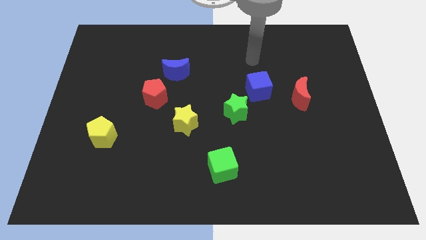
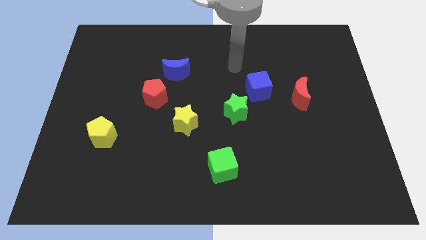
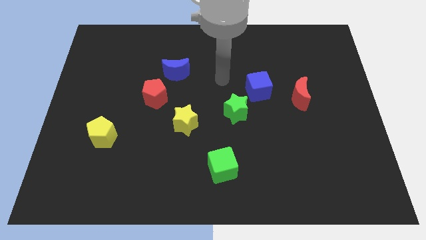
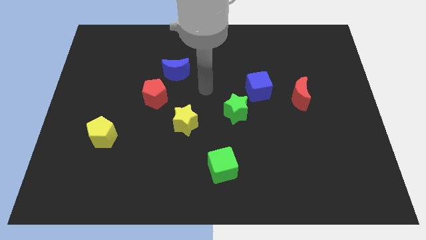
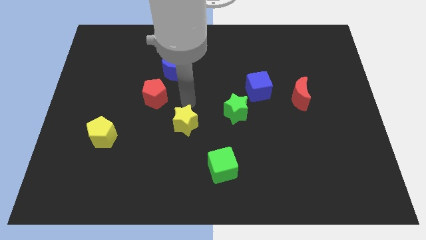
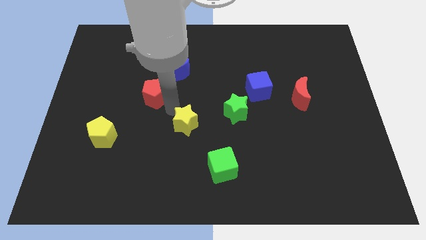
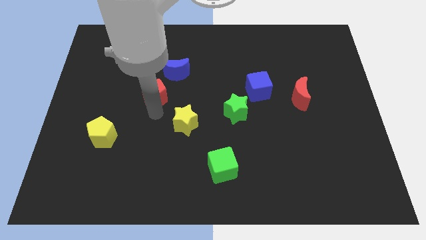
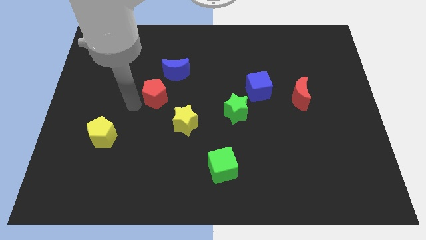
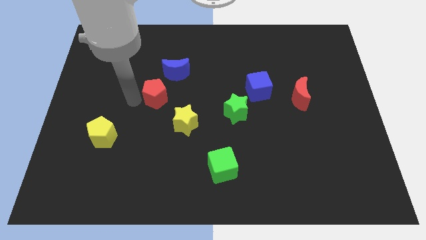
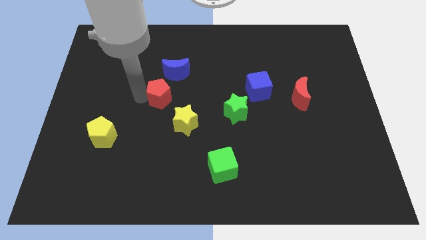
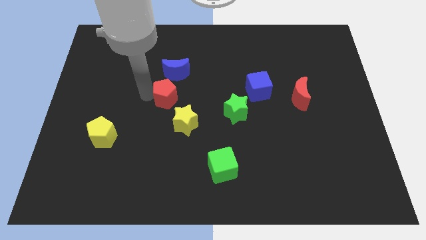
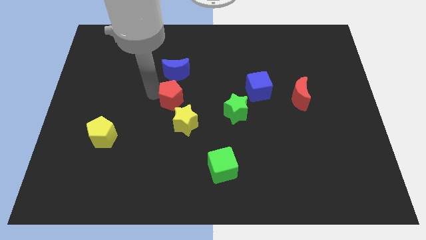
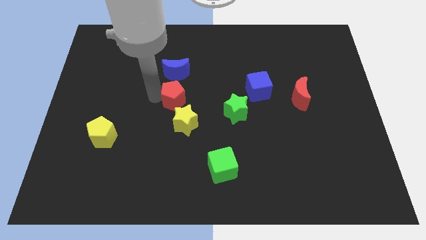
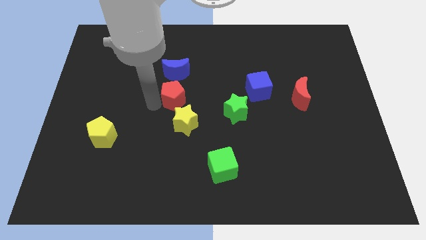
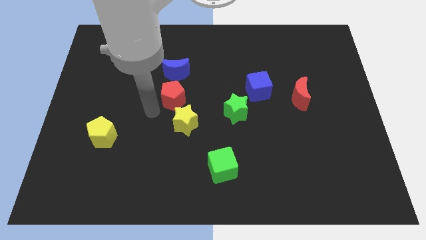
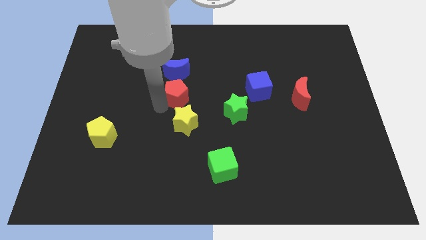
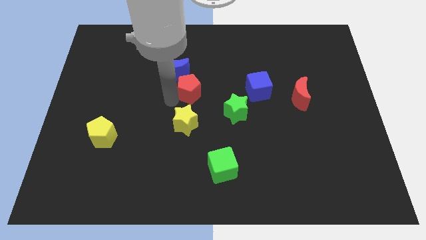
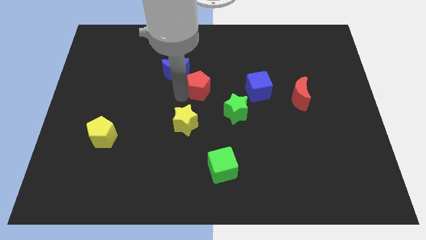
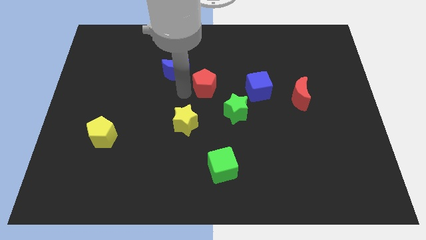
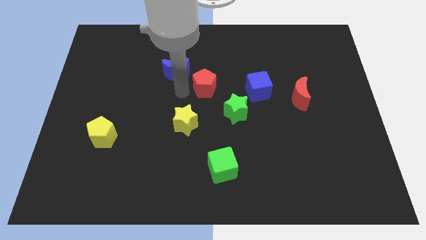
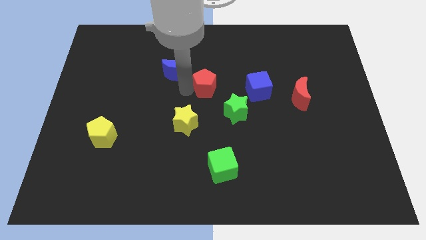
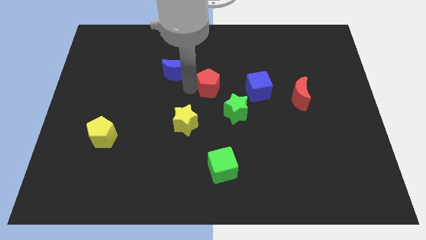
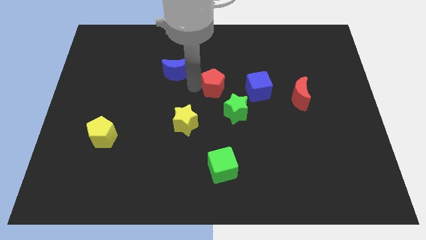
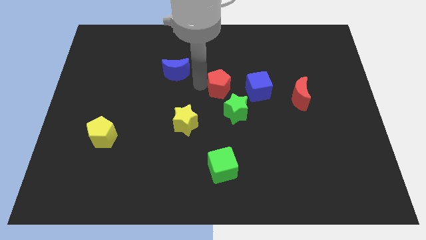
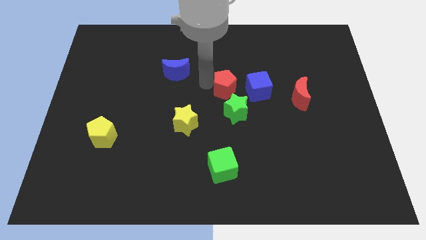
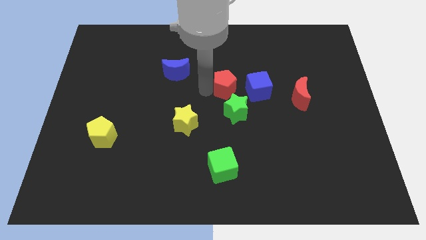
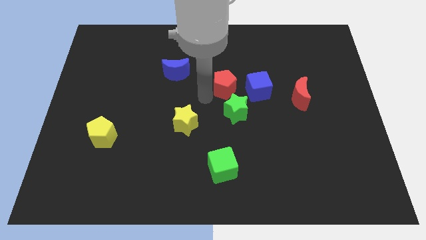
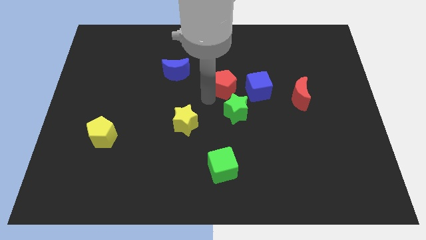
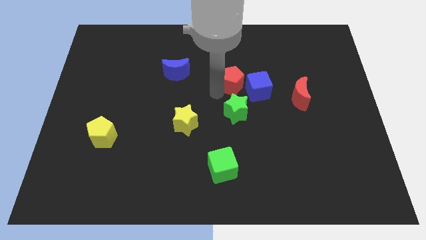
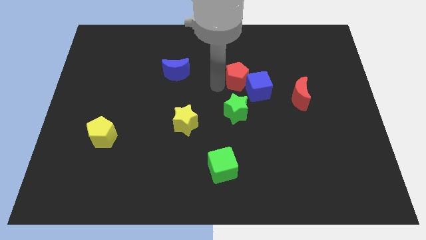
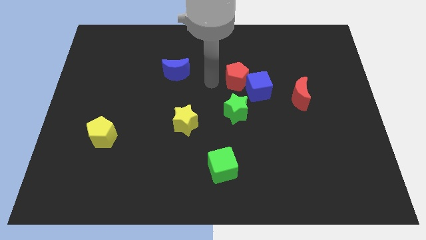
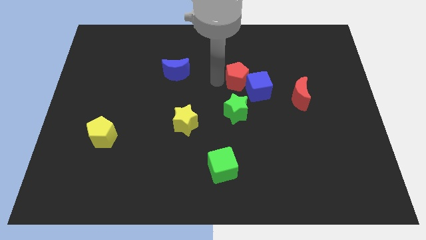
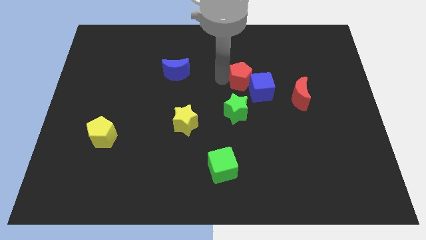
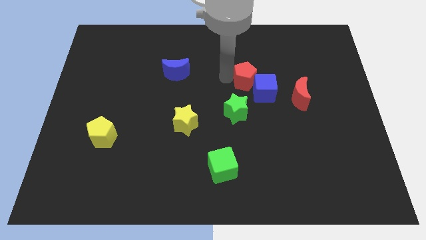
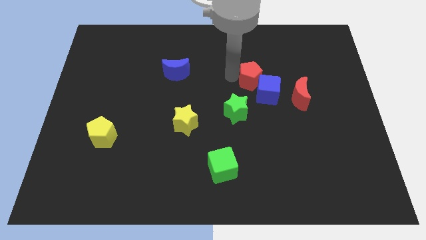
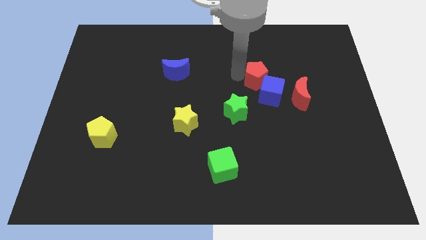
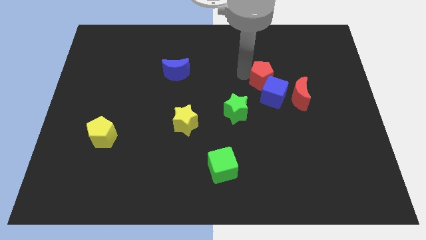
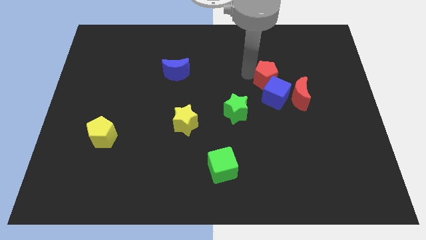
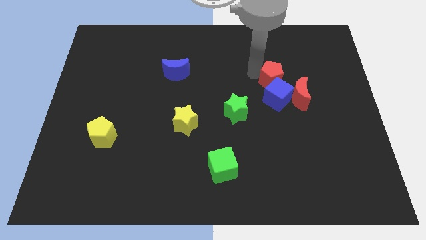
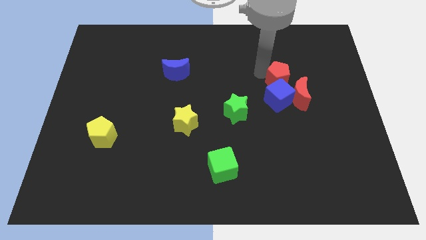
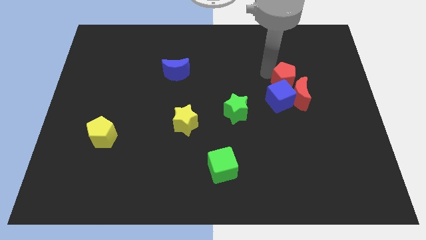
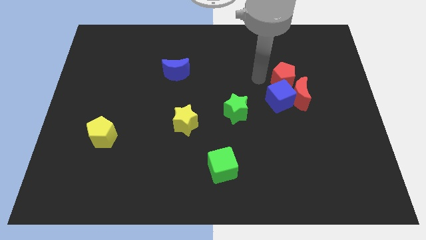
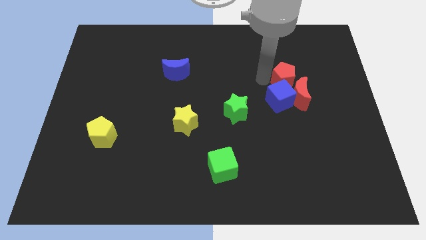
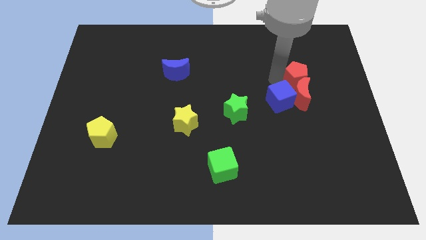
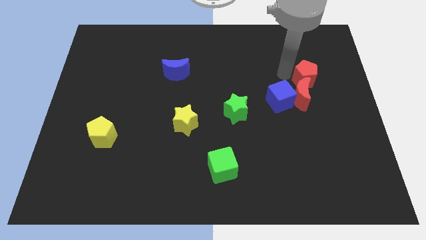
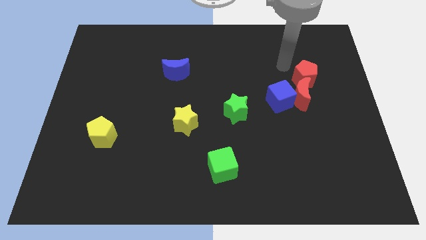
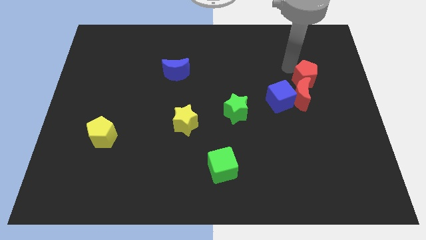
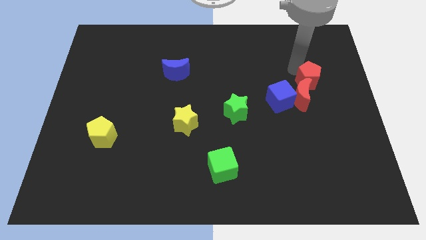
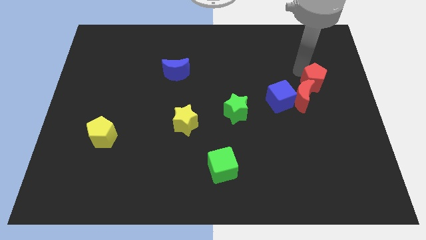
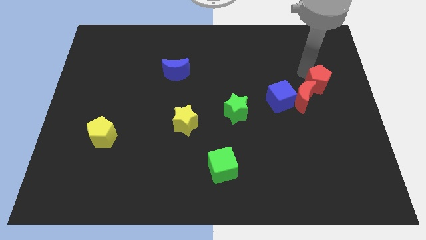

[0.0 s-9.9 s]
move the red pentagon to the right side

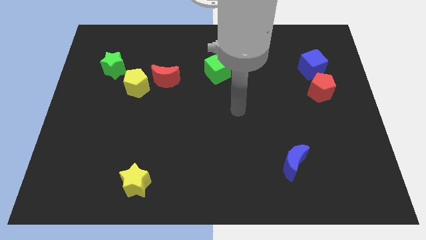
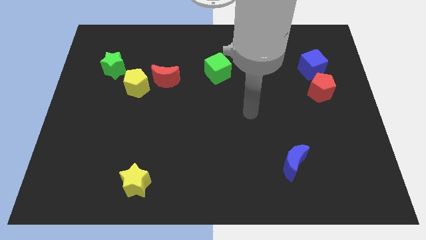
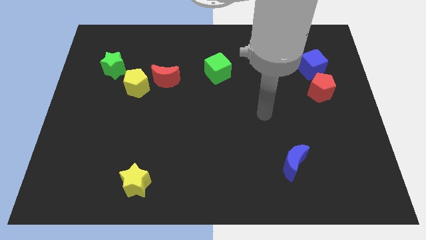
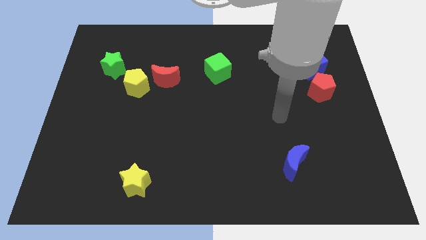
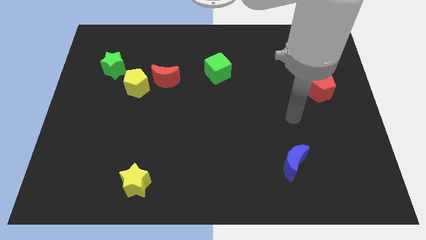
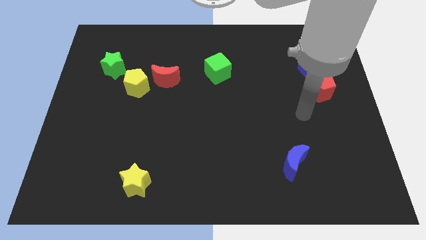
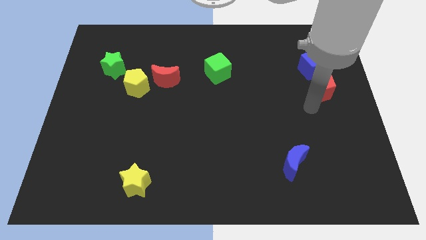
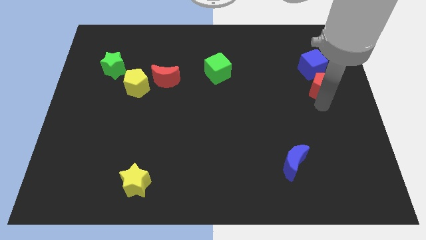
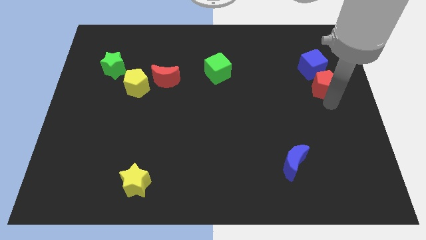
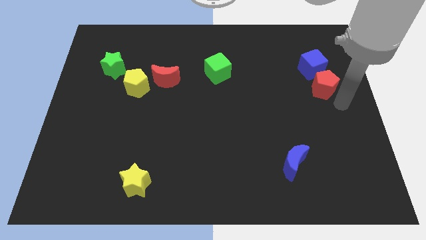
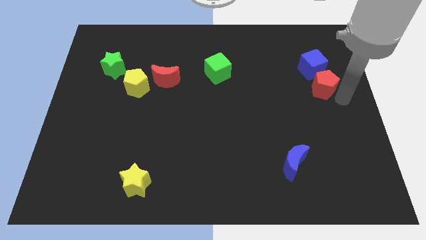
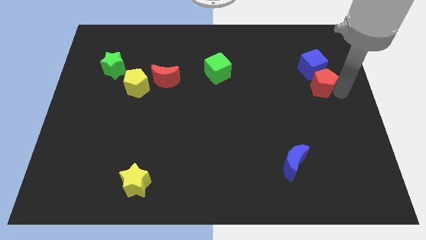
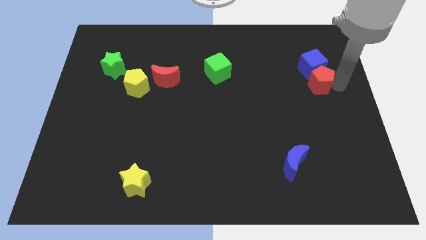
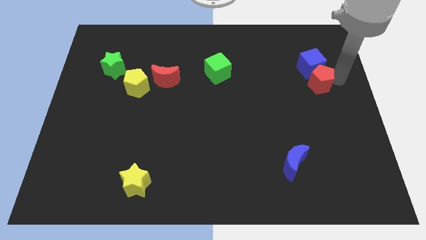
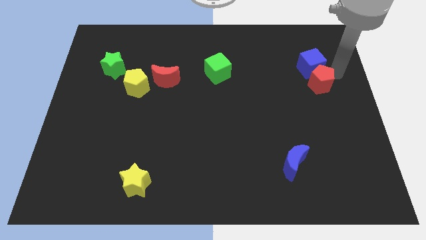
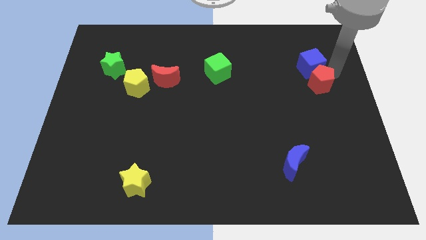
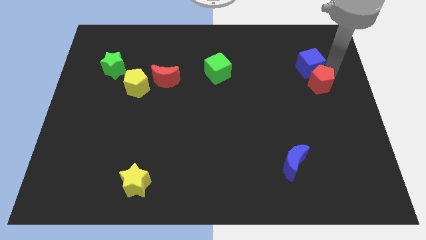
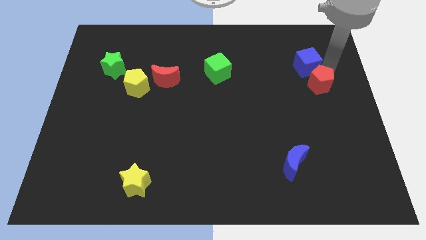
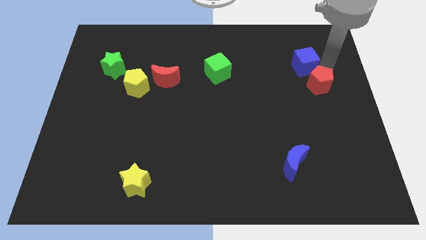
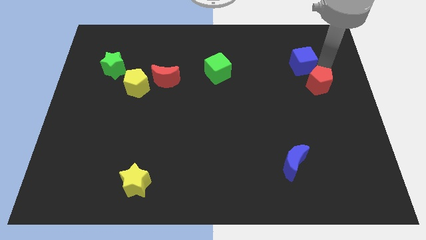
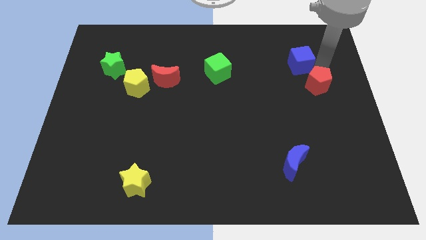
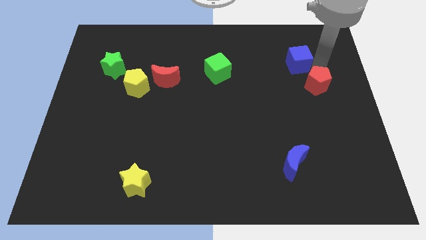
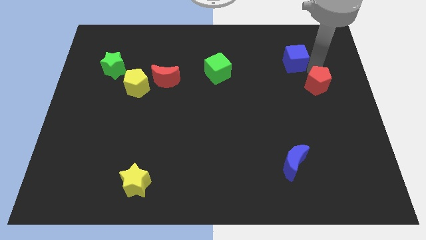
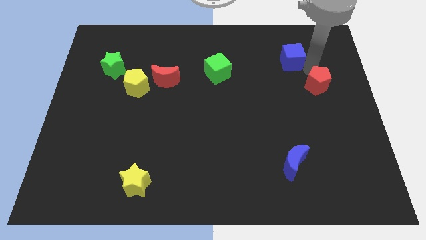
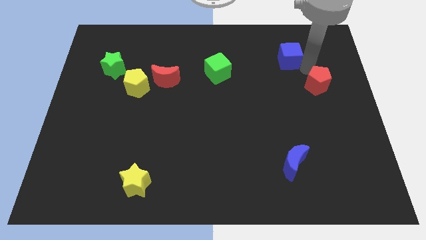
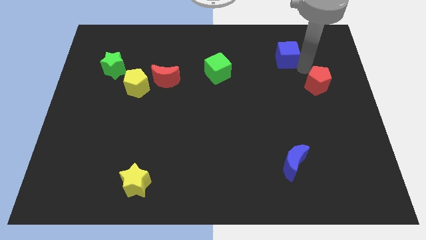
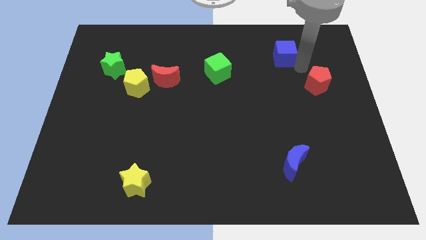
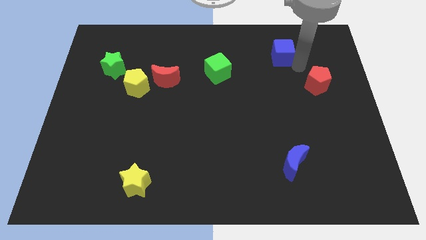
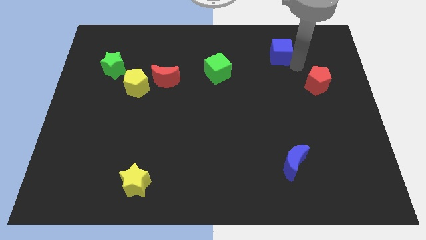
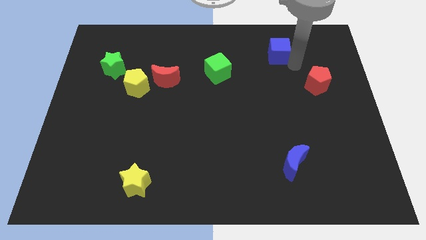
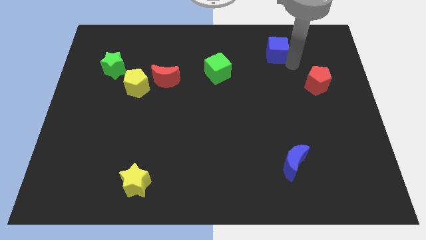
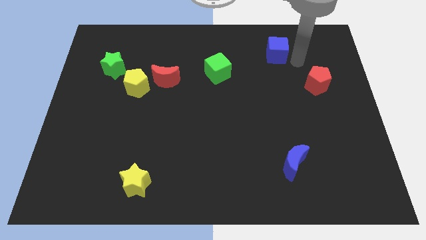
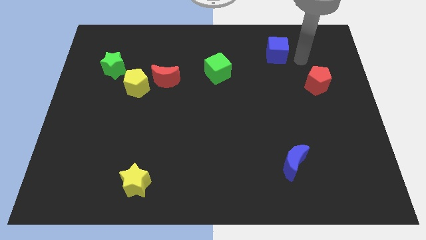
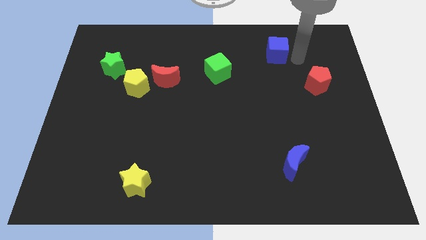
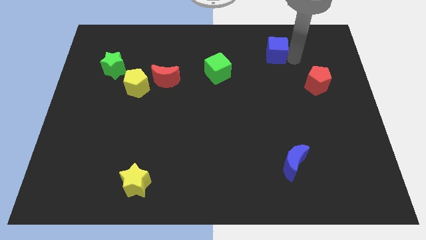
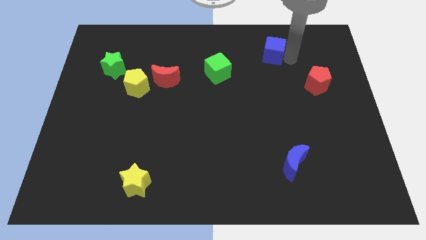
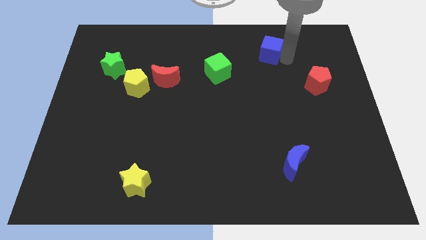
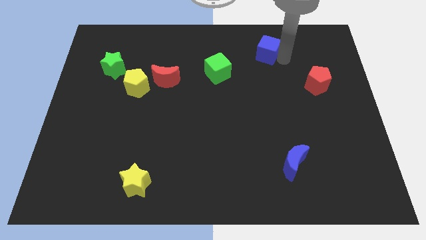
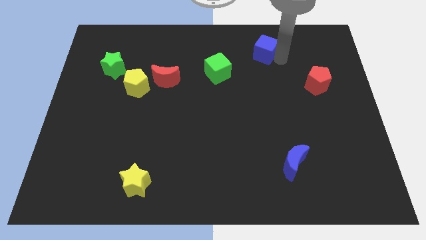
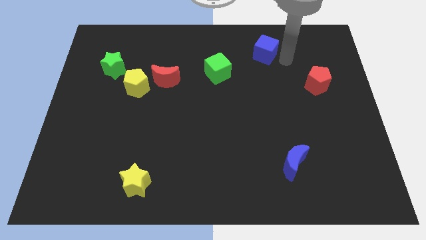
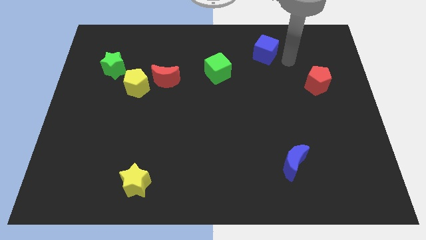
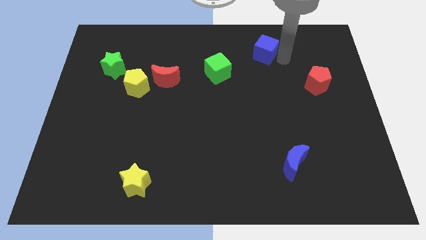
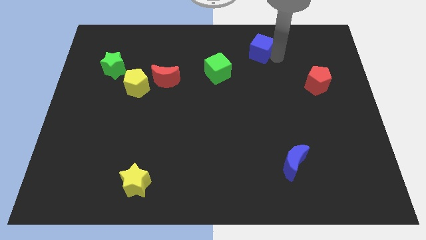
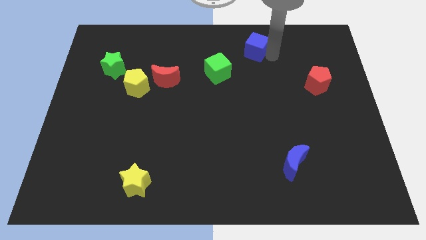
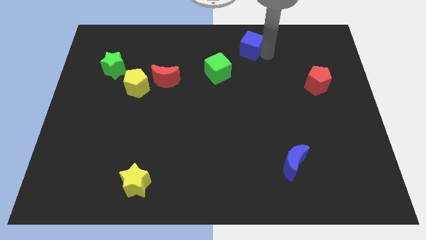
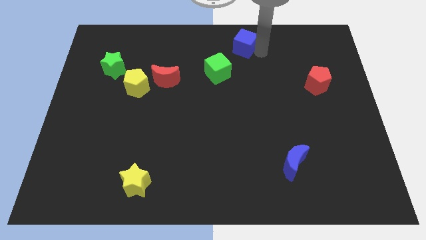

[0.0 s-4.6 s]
put the blue cube to the top
